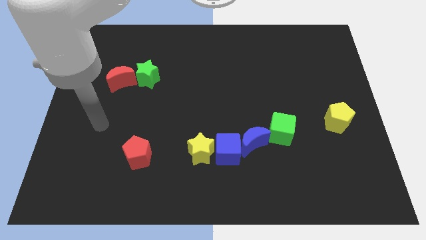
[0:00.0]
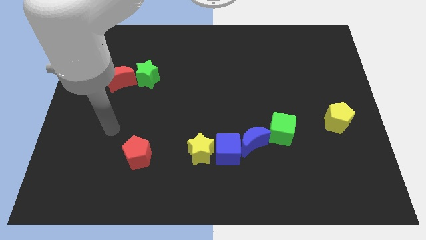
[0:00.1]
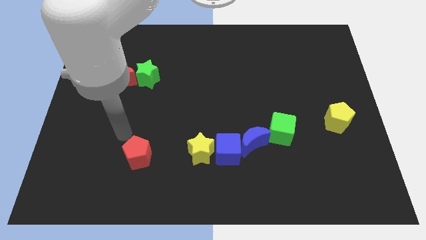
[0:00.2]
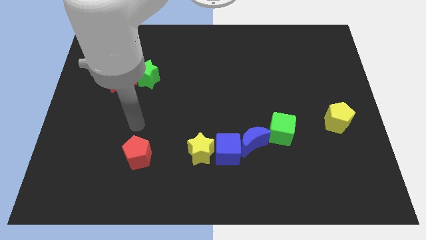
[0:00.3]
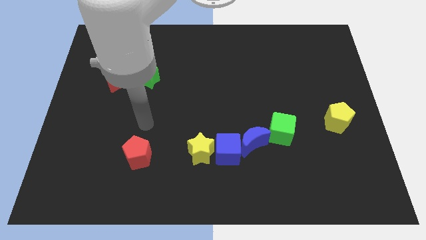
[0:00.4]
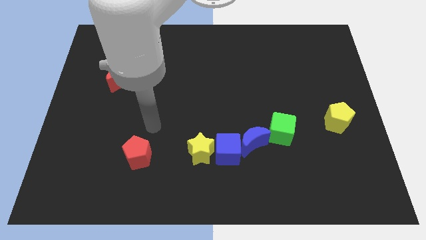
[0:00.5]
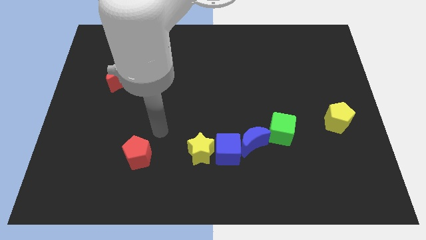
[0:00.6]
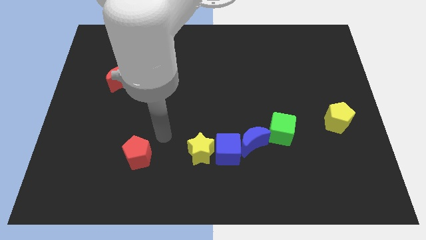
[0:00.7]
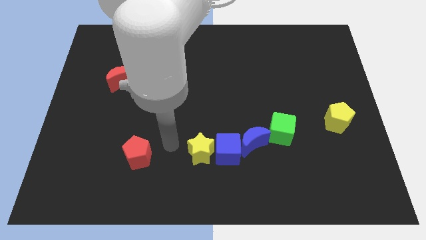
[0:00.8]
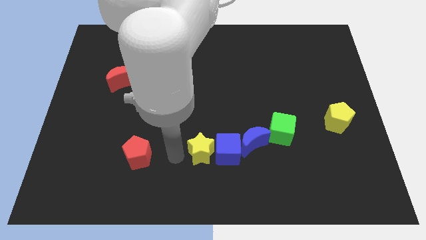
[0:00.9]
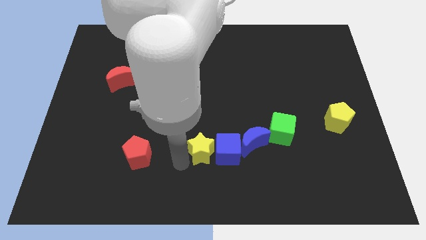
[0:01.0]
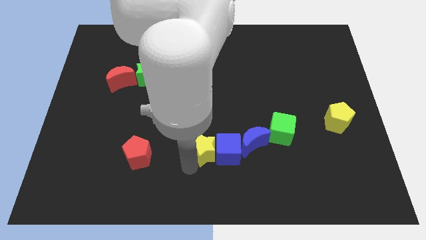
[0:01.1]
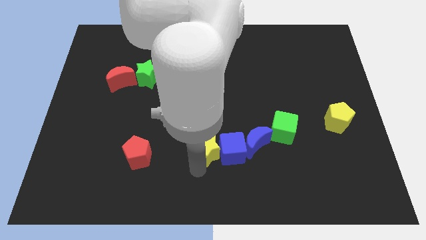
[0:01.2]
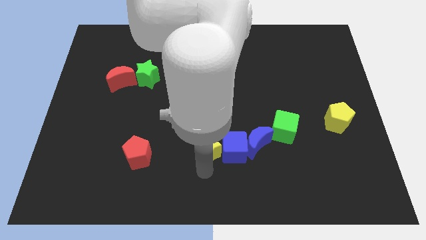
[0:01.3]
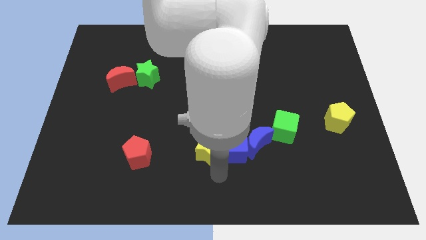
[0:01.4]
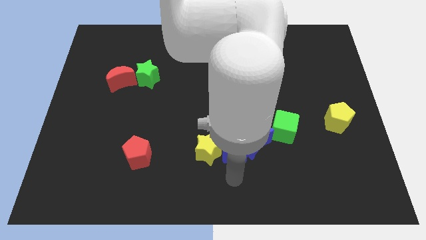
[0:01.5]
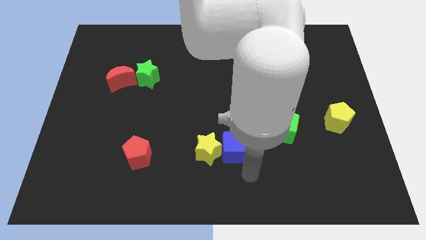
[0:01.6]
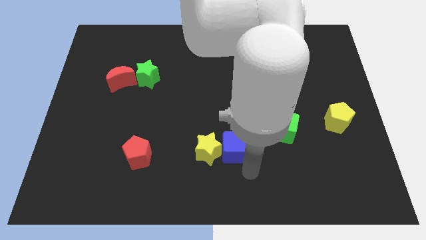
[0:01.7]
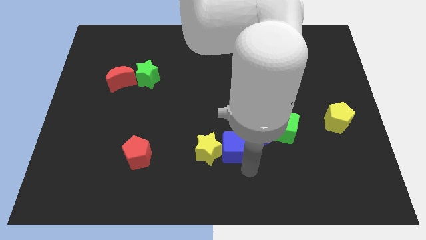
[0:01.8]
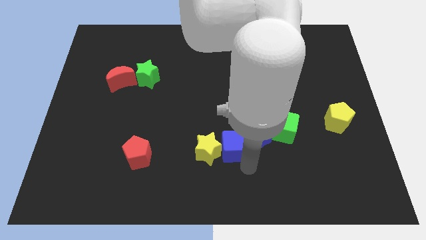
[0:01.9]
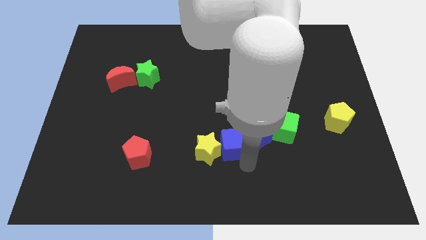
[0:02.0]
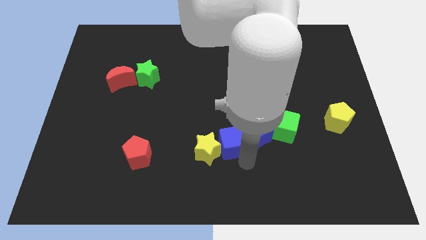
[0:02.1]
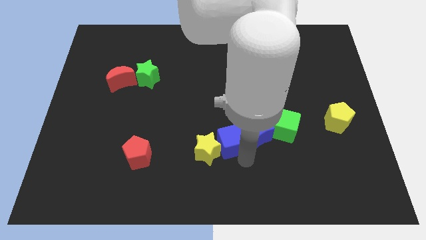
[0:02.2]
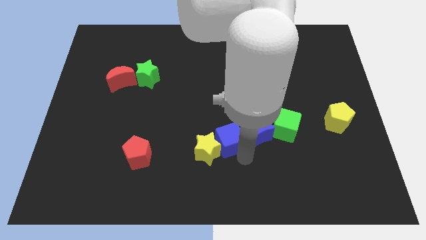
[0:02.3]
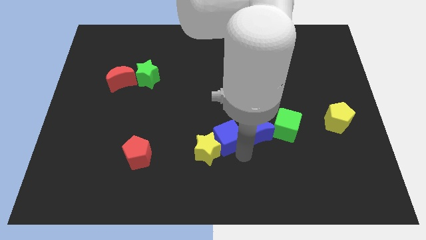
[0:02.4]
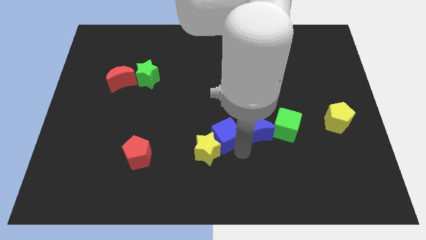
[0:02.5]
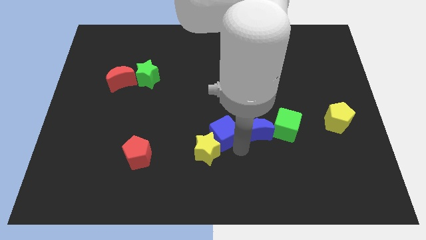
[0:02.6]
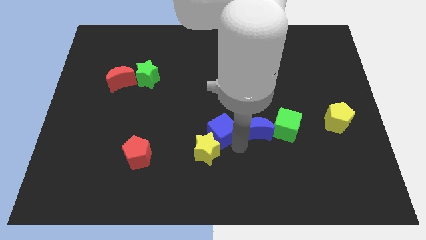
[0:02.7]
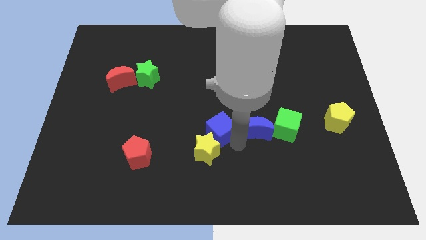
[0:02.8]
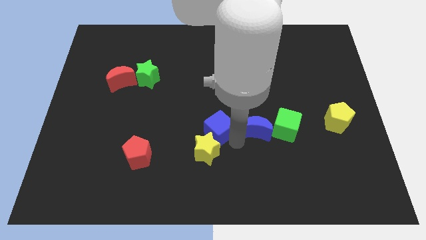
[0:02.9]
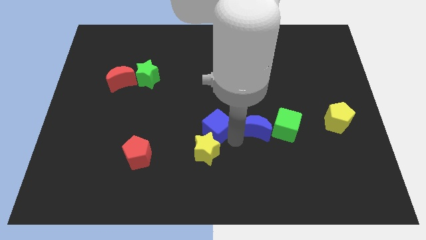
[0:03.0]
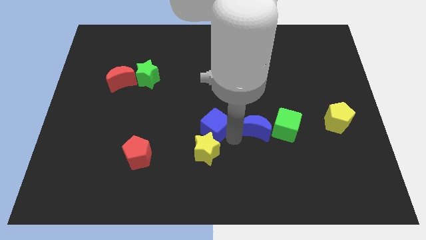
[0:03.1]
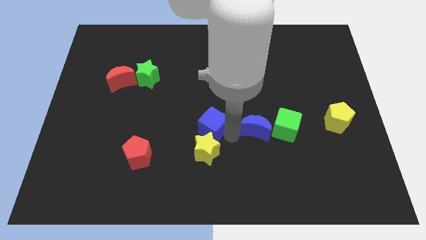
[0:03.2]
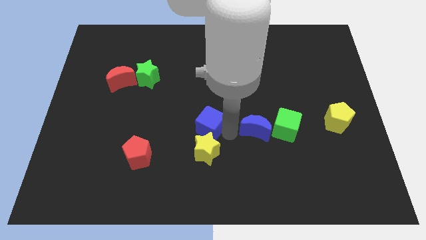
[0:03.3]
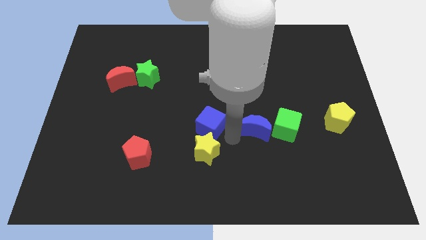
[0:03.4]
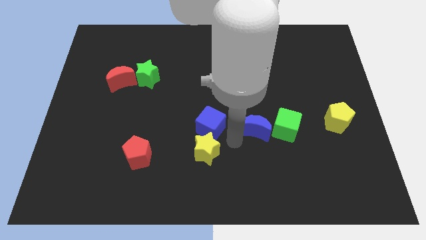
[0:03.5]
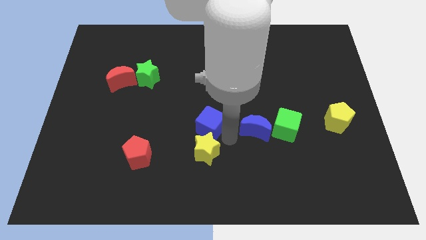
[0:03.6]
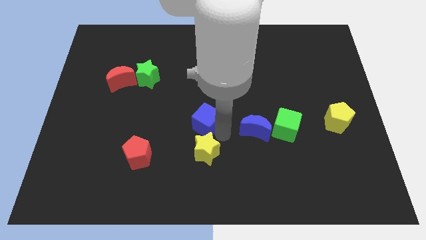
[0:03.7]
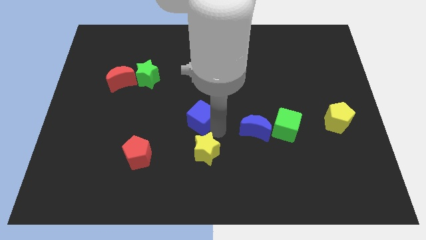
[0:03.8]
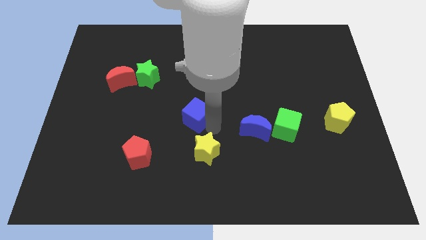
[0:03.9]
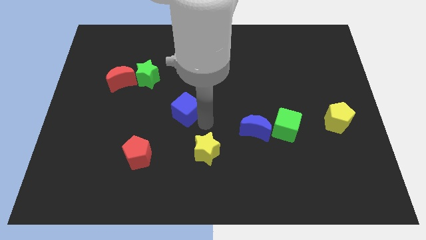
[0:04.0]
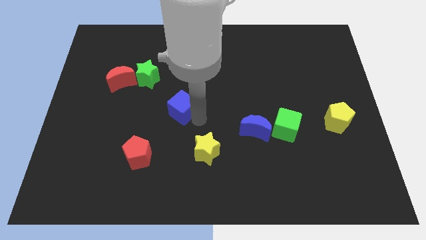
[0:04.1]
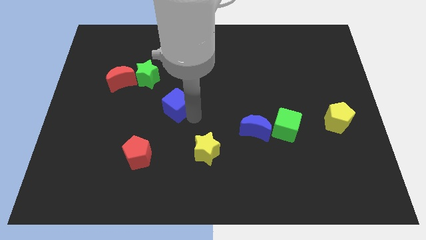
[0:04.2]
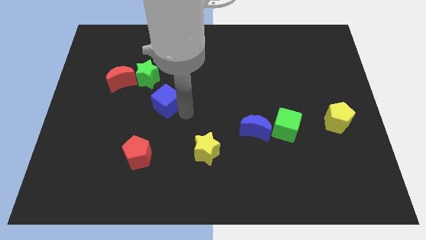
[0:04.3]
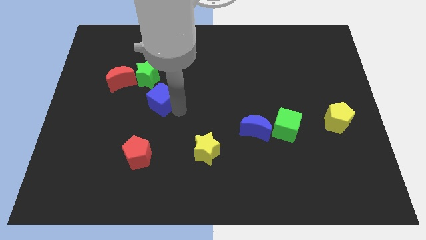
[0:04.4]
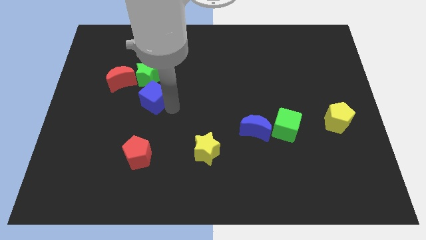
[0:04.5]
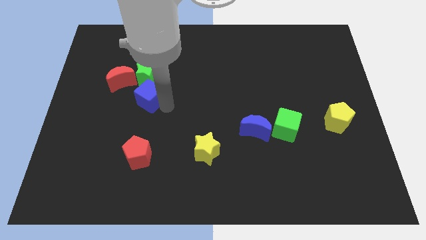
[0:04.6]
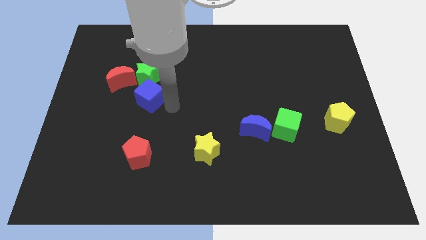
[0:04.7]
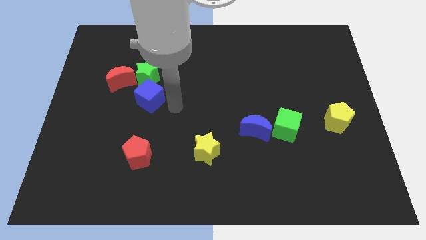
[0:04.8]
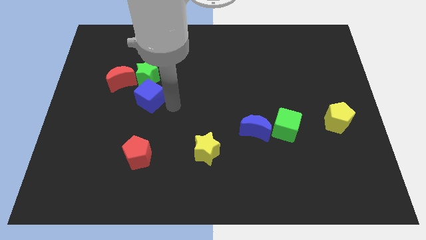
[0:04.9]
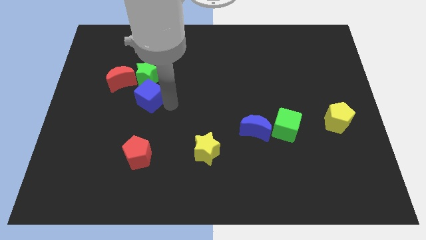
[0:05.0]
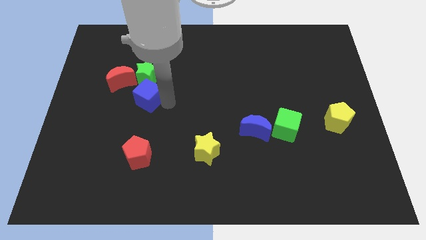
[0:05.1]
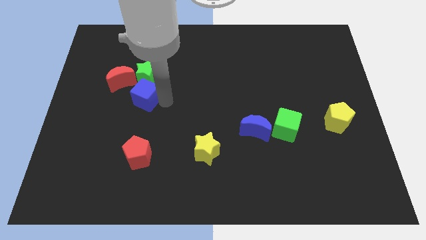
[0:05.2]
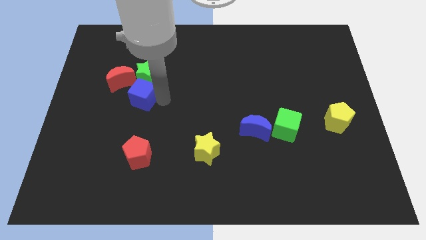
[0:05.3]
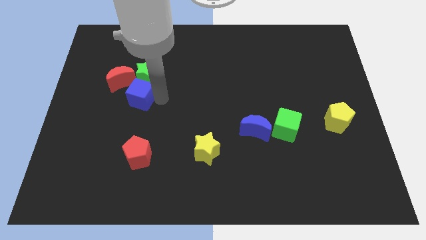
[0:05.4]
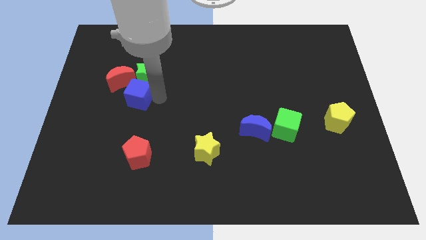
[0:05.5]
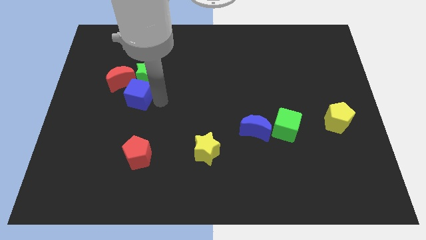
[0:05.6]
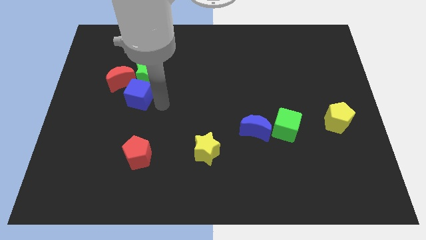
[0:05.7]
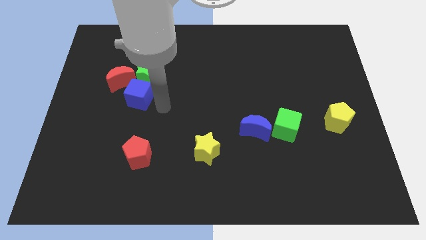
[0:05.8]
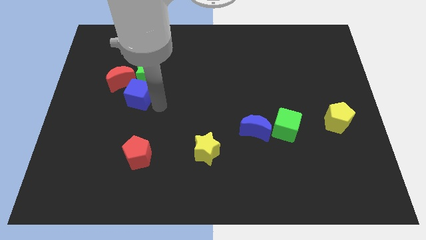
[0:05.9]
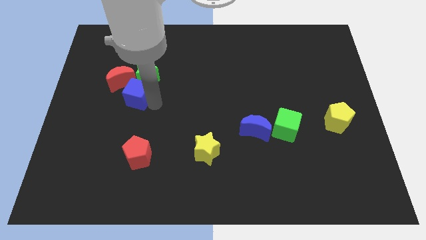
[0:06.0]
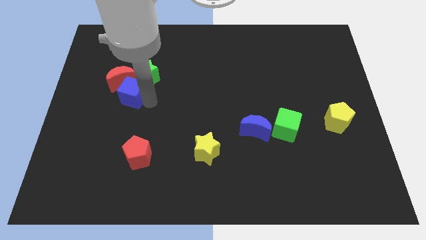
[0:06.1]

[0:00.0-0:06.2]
push the blue cube towards the red moon

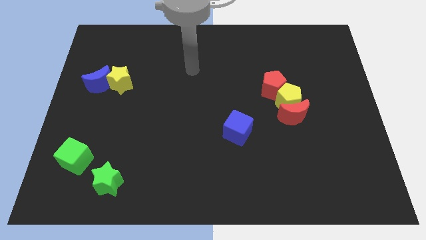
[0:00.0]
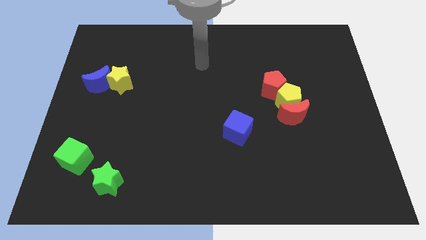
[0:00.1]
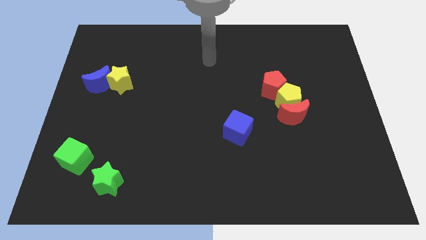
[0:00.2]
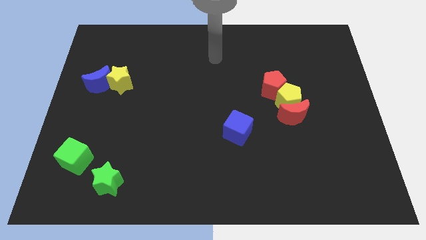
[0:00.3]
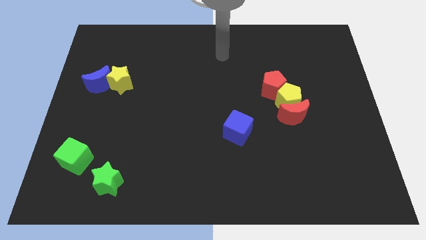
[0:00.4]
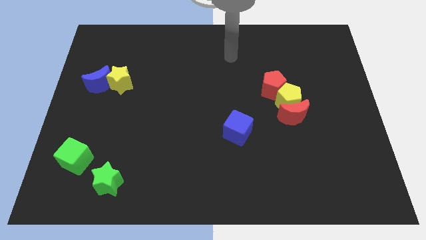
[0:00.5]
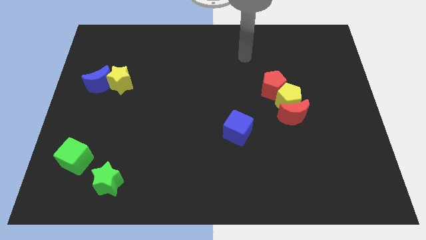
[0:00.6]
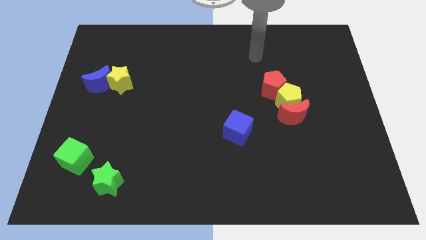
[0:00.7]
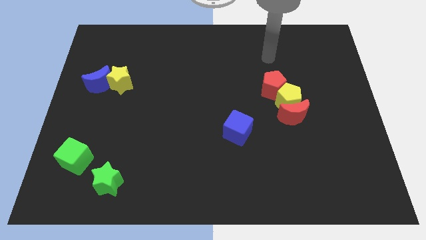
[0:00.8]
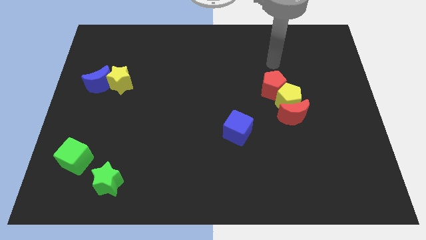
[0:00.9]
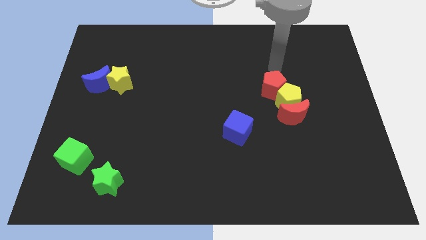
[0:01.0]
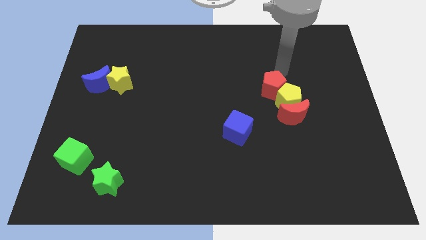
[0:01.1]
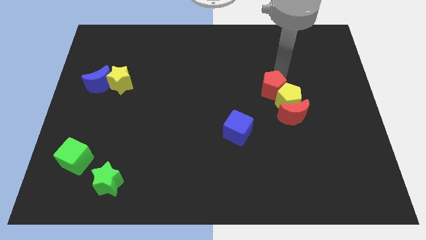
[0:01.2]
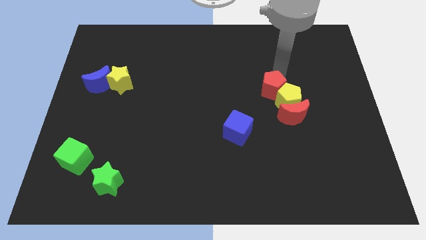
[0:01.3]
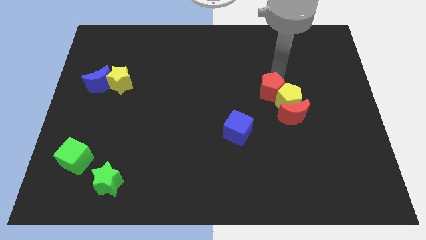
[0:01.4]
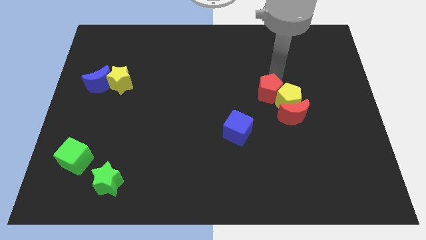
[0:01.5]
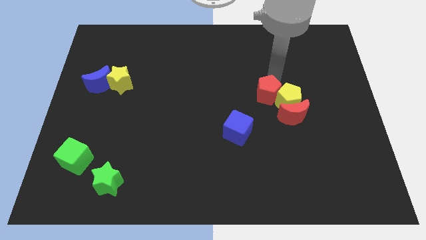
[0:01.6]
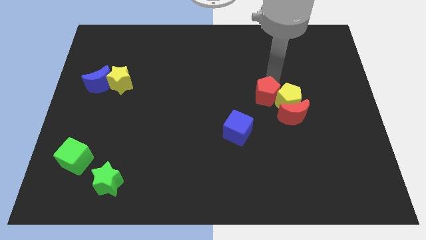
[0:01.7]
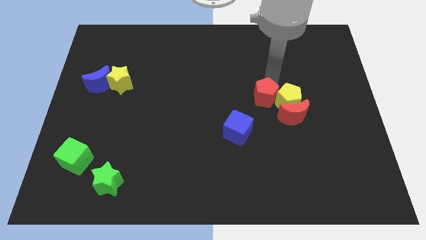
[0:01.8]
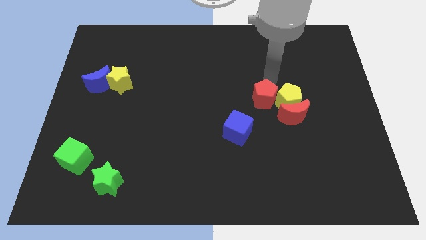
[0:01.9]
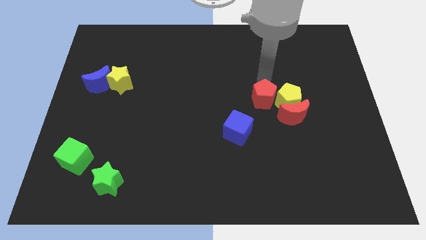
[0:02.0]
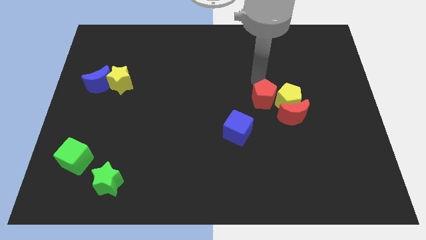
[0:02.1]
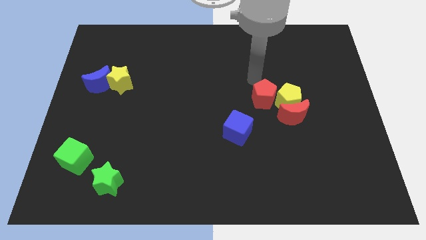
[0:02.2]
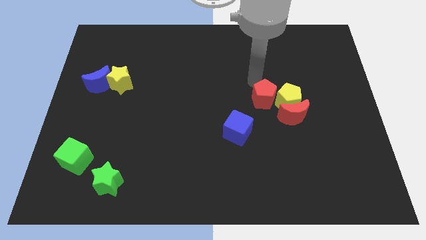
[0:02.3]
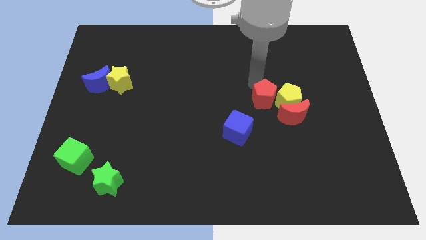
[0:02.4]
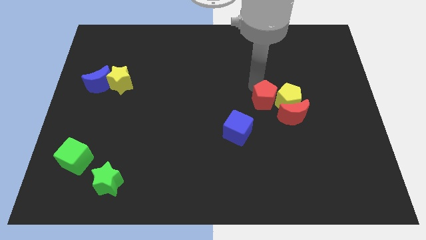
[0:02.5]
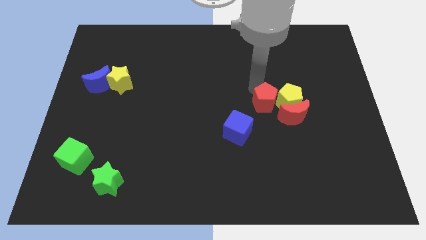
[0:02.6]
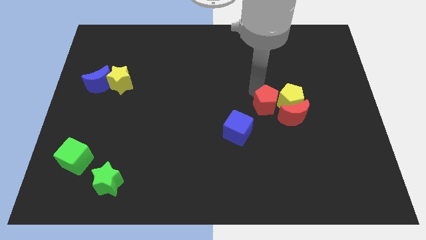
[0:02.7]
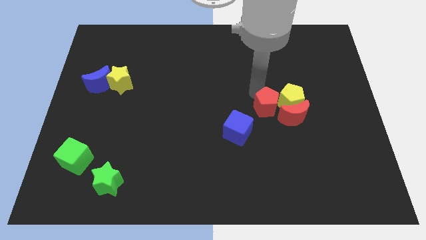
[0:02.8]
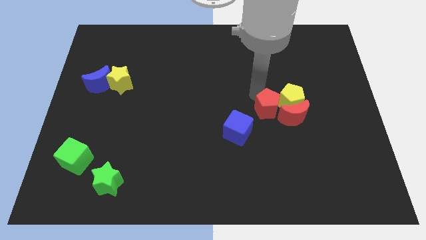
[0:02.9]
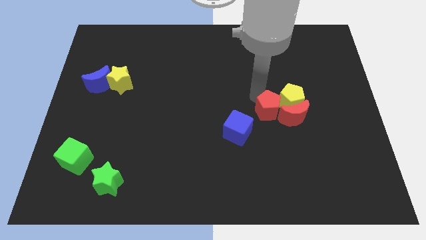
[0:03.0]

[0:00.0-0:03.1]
slide the red pentagon next to the red moon
